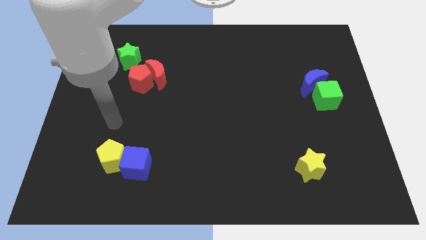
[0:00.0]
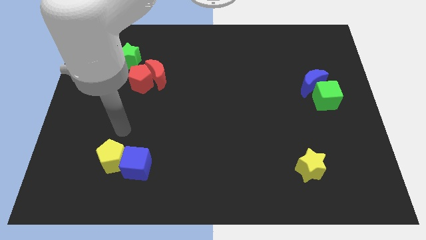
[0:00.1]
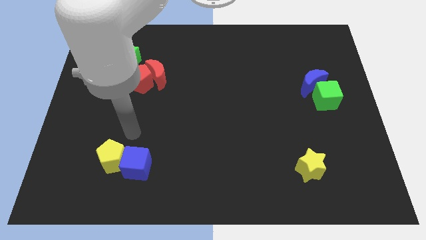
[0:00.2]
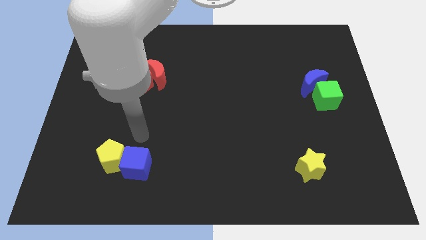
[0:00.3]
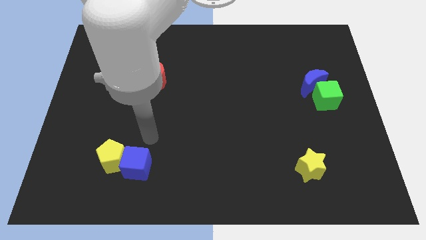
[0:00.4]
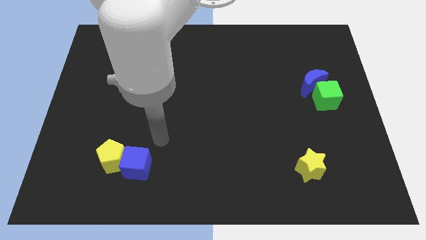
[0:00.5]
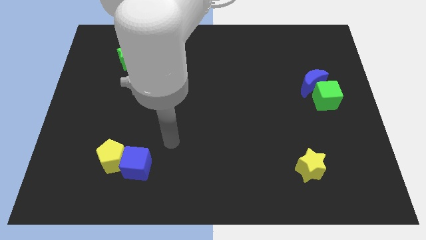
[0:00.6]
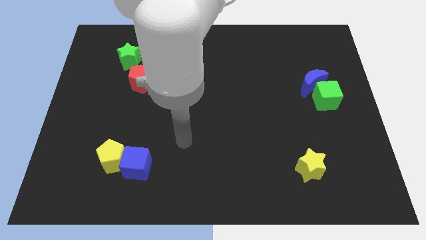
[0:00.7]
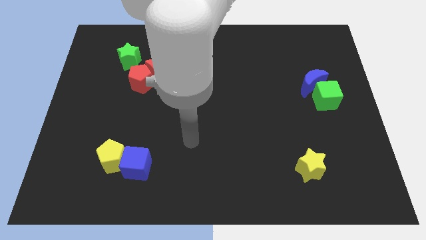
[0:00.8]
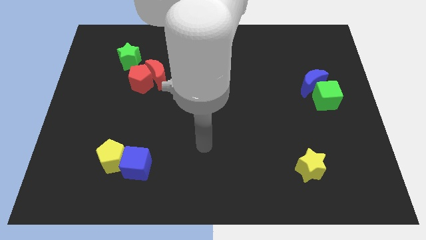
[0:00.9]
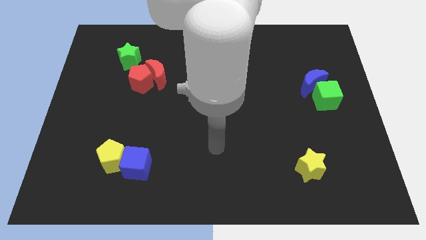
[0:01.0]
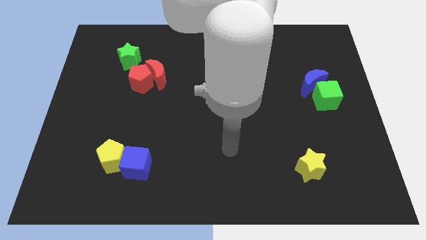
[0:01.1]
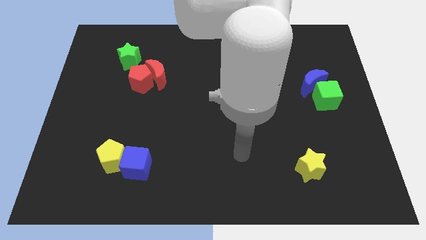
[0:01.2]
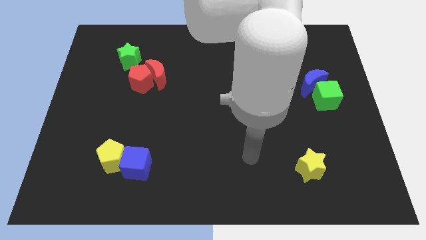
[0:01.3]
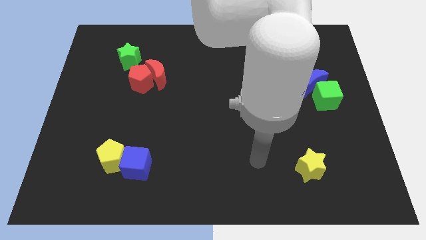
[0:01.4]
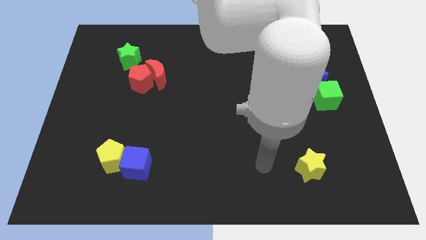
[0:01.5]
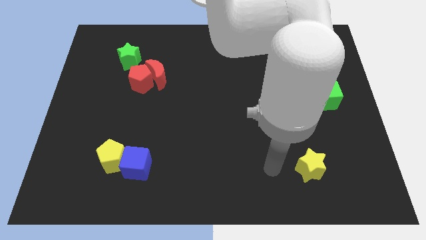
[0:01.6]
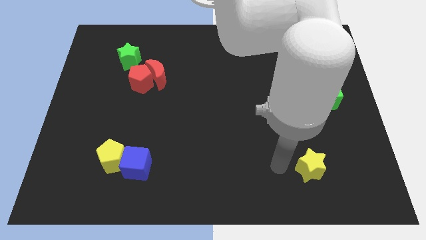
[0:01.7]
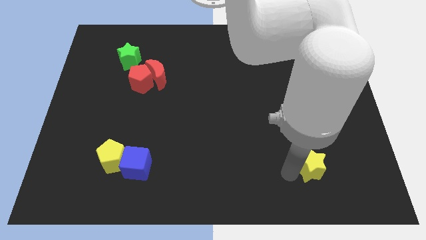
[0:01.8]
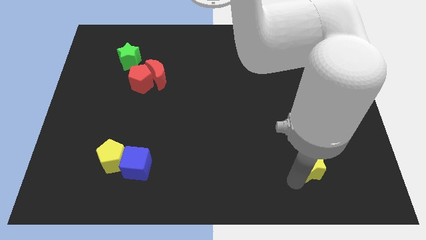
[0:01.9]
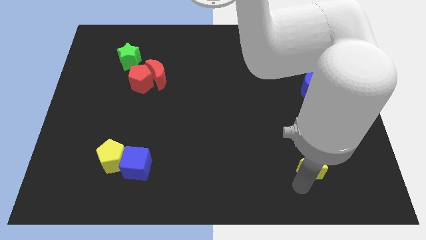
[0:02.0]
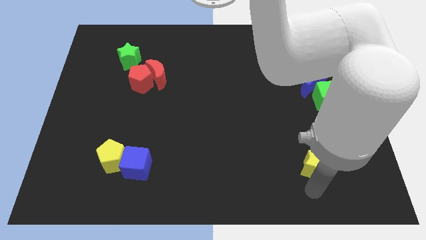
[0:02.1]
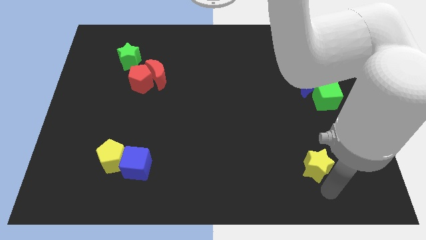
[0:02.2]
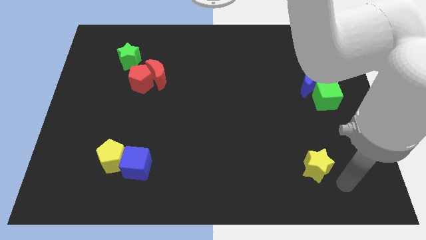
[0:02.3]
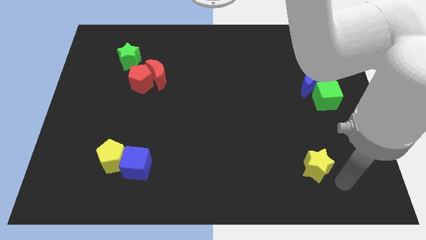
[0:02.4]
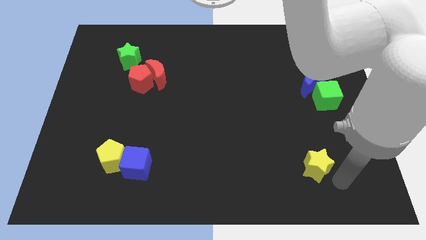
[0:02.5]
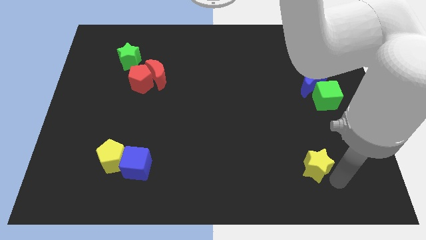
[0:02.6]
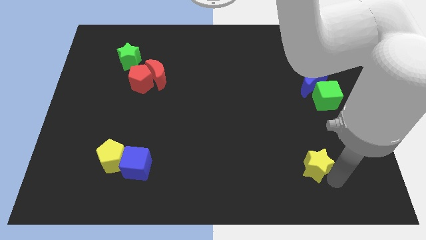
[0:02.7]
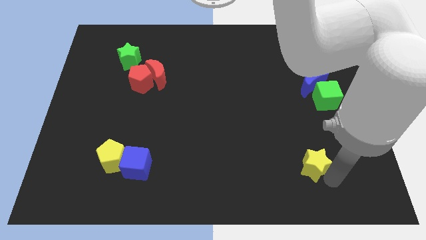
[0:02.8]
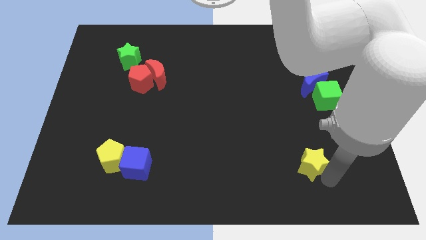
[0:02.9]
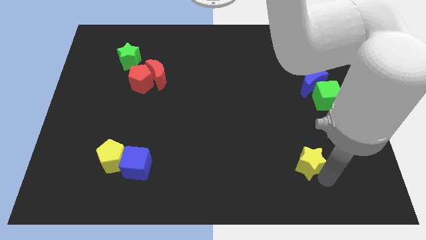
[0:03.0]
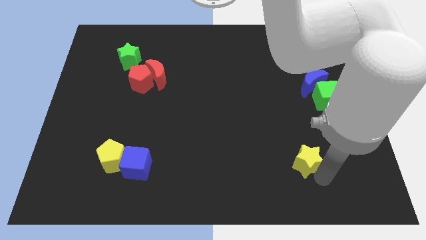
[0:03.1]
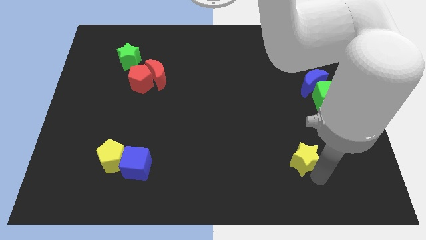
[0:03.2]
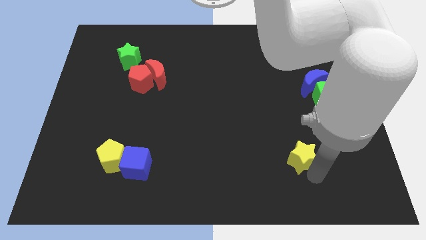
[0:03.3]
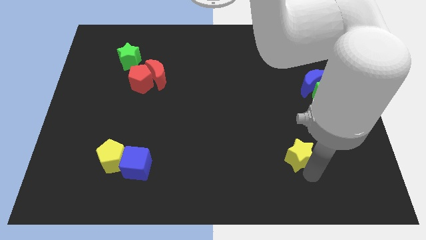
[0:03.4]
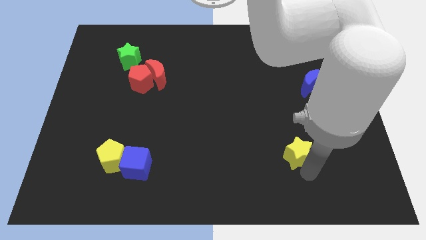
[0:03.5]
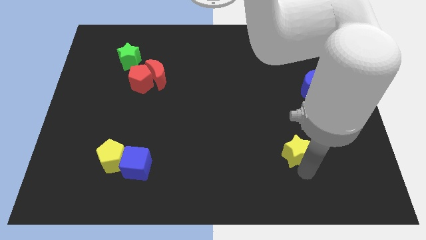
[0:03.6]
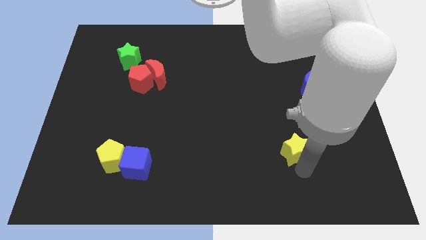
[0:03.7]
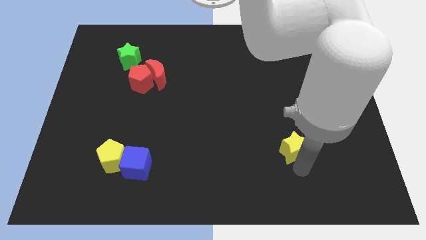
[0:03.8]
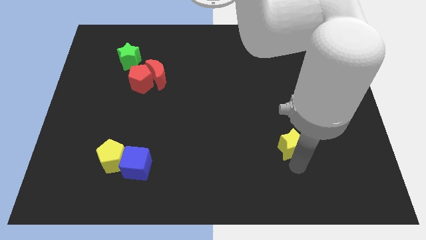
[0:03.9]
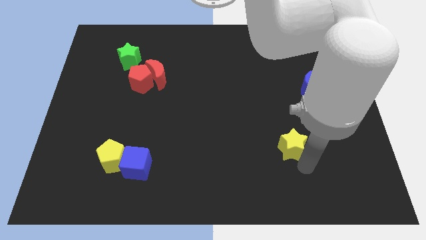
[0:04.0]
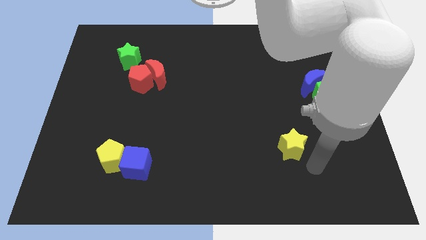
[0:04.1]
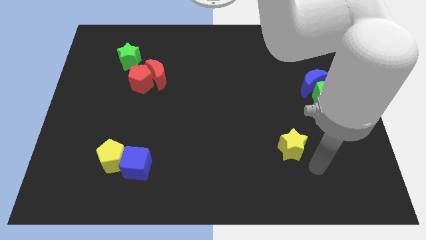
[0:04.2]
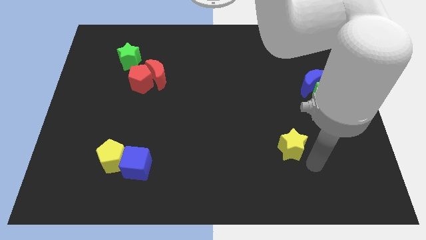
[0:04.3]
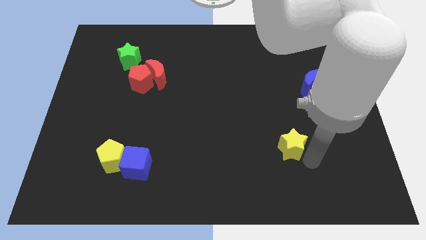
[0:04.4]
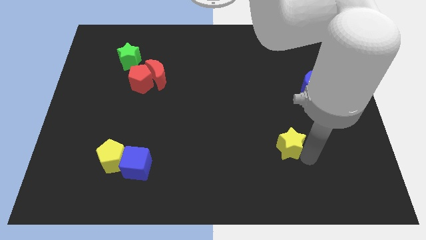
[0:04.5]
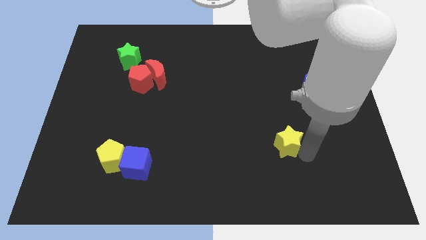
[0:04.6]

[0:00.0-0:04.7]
slightly slide the yellow star upwards and left

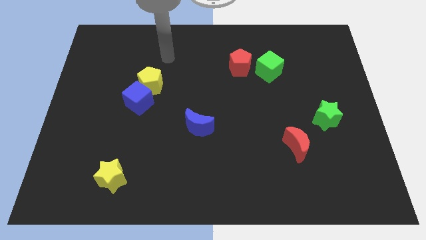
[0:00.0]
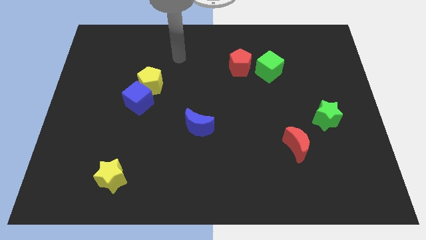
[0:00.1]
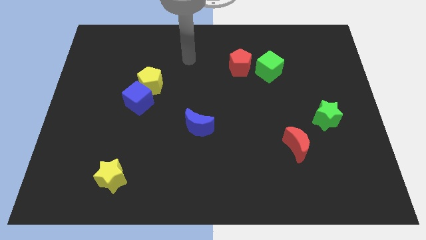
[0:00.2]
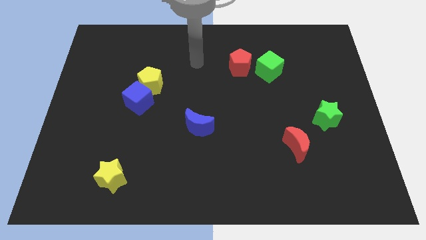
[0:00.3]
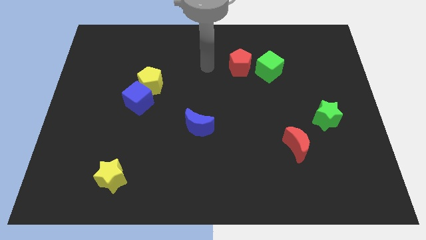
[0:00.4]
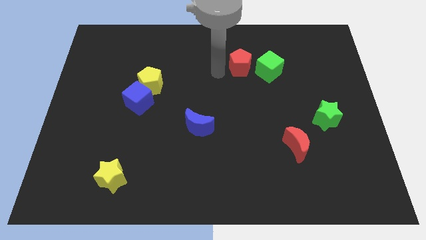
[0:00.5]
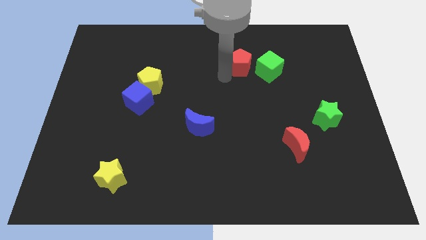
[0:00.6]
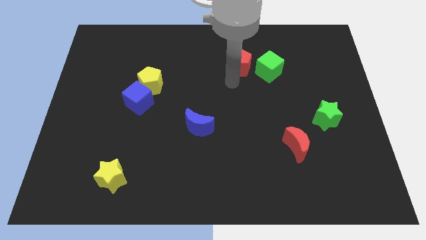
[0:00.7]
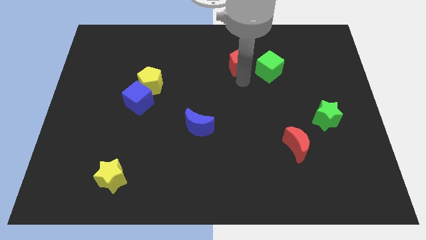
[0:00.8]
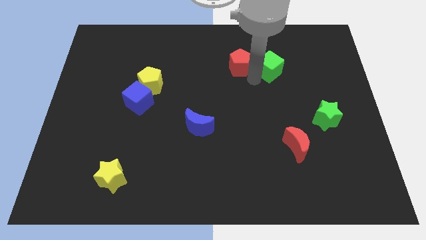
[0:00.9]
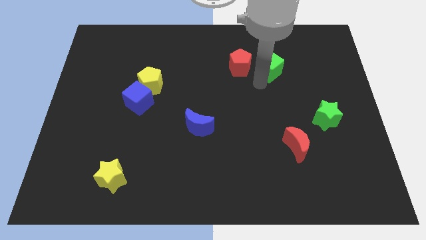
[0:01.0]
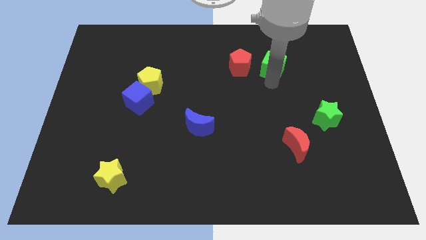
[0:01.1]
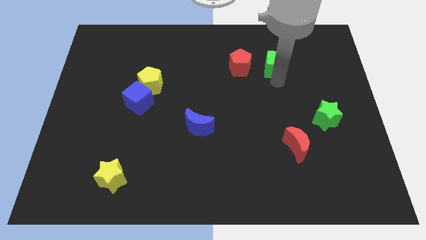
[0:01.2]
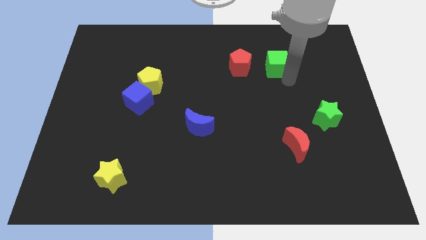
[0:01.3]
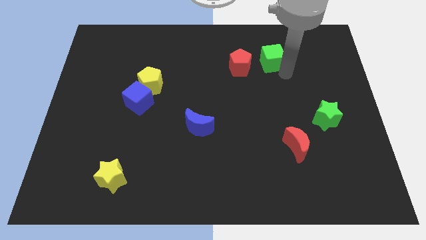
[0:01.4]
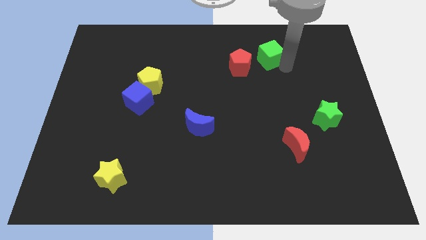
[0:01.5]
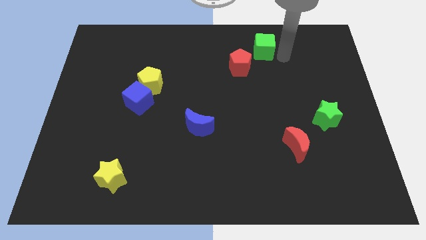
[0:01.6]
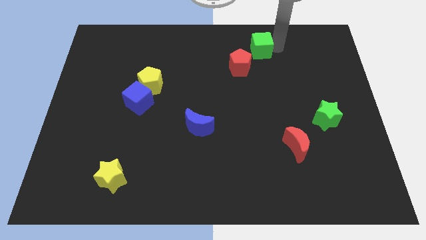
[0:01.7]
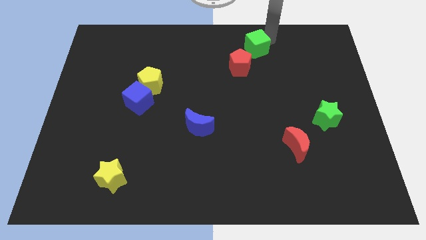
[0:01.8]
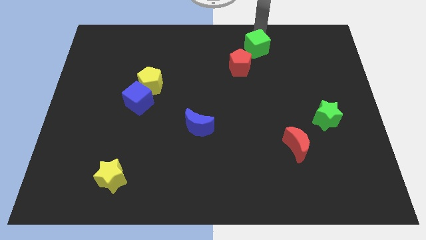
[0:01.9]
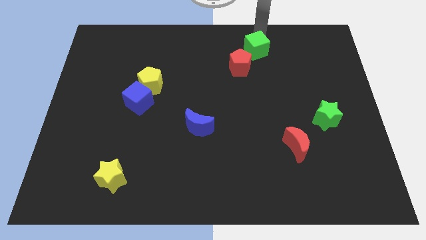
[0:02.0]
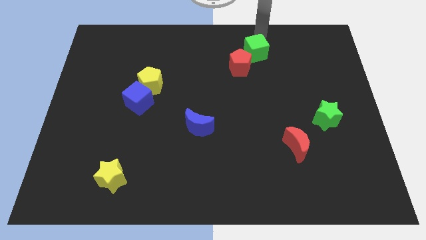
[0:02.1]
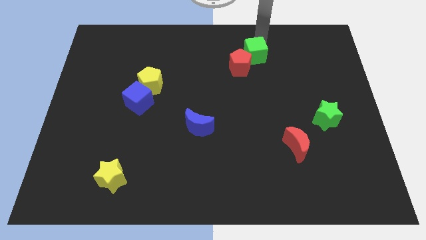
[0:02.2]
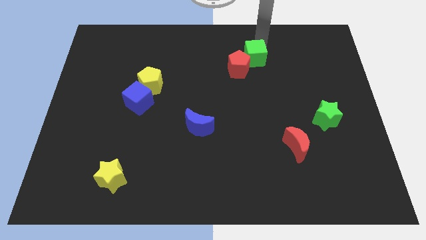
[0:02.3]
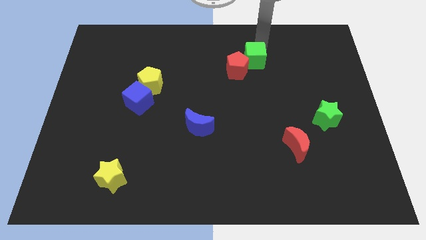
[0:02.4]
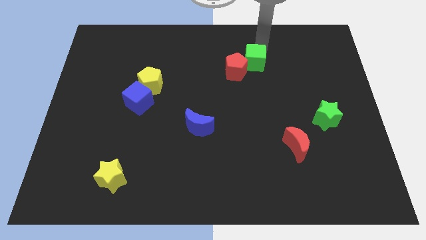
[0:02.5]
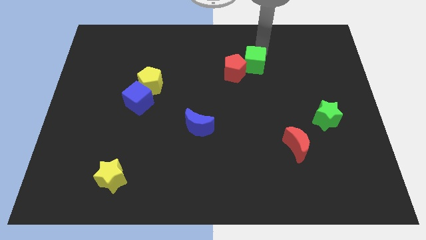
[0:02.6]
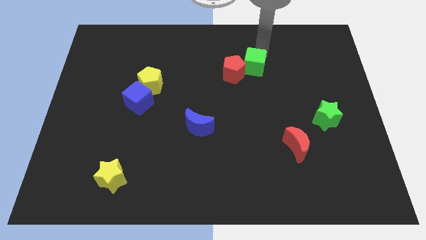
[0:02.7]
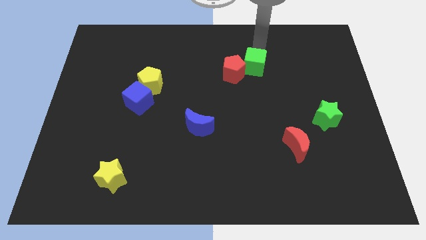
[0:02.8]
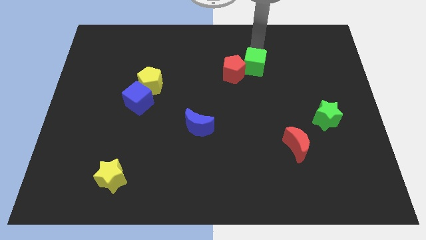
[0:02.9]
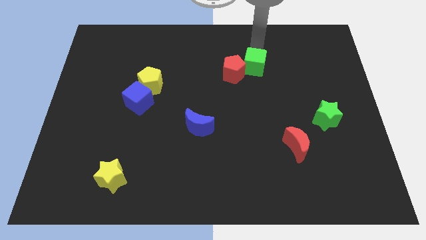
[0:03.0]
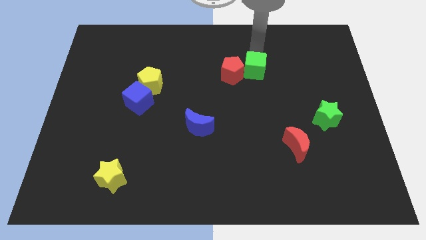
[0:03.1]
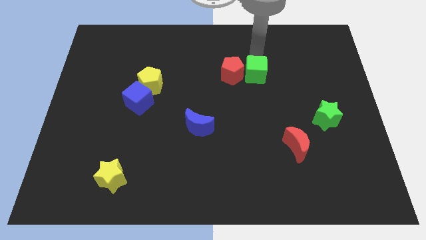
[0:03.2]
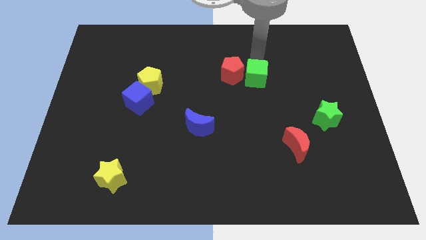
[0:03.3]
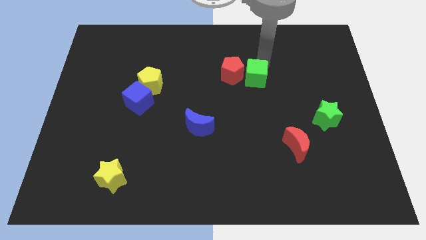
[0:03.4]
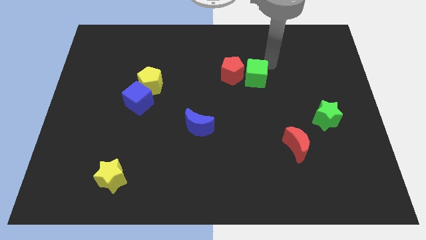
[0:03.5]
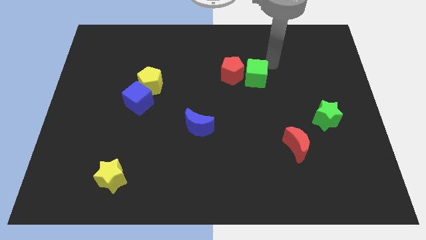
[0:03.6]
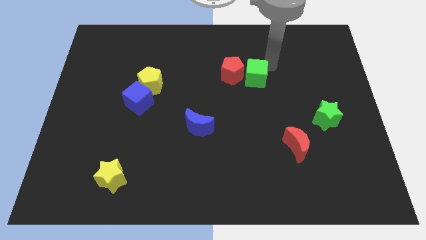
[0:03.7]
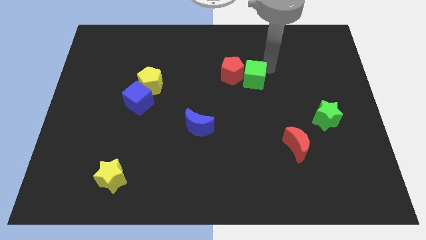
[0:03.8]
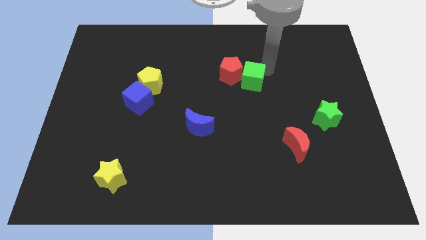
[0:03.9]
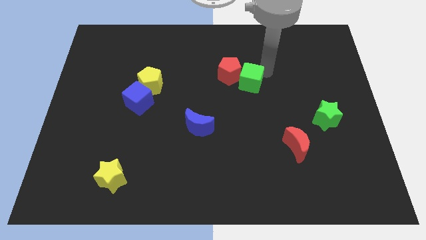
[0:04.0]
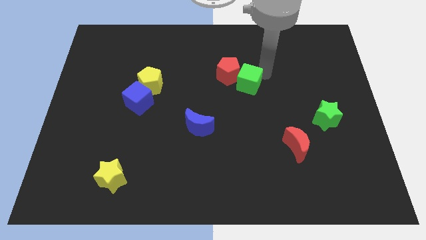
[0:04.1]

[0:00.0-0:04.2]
slightly slide the green cube downwards and then to the left
